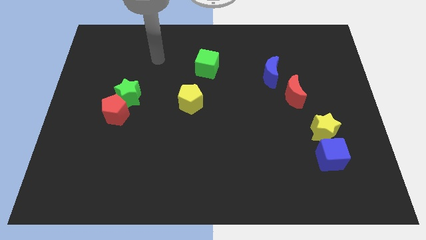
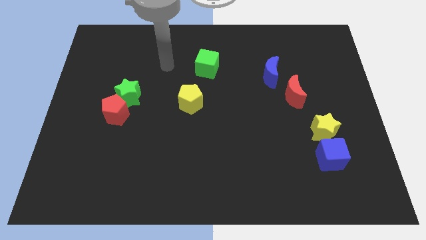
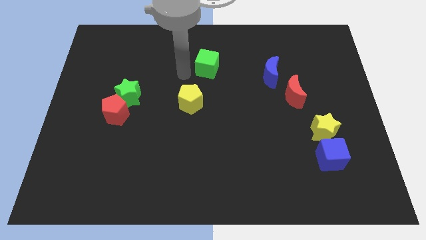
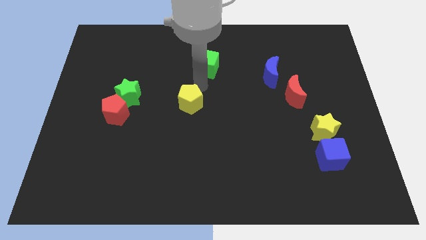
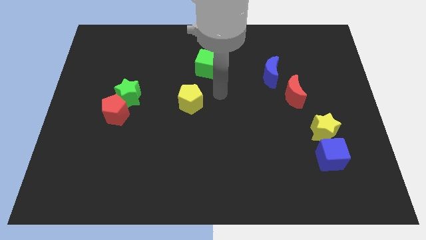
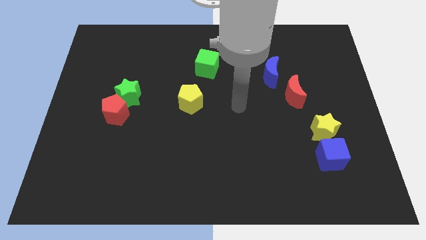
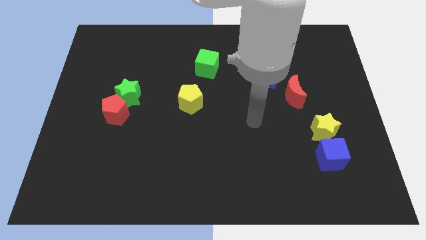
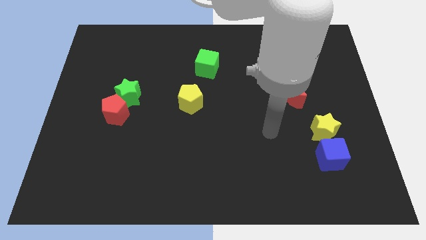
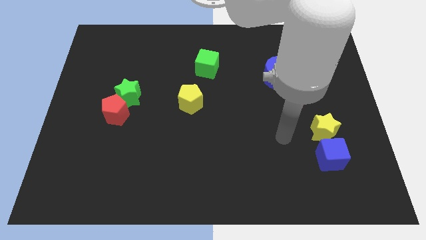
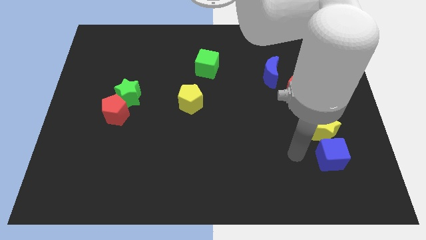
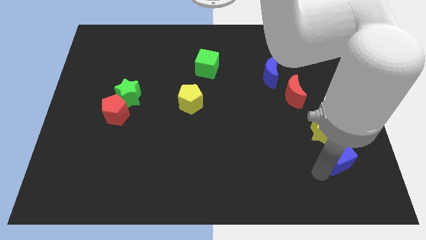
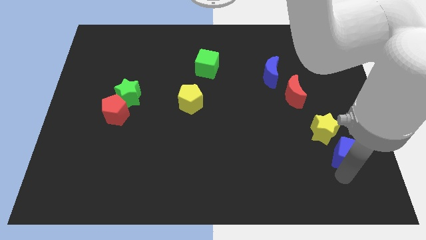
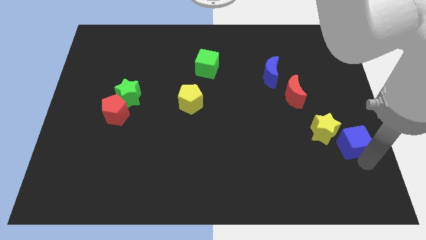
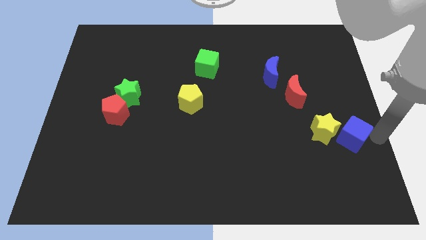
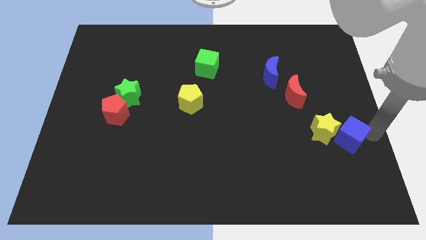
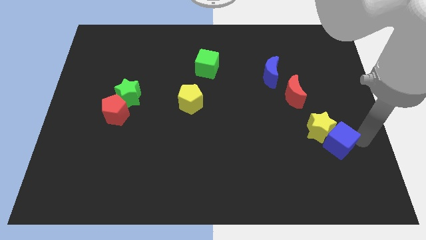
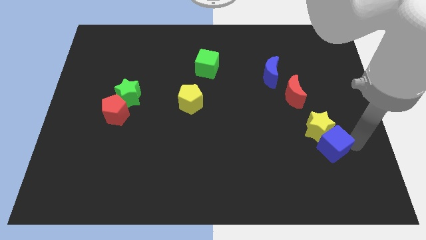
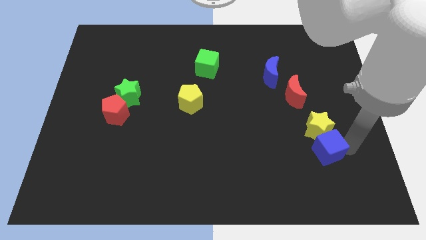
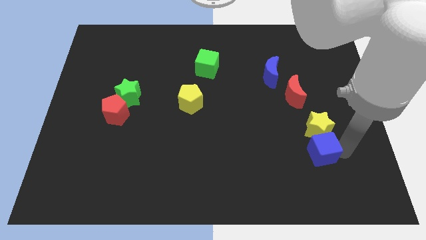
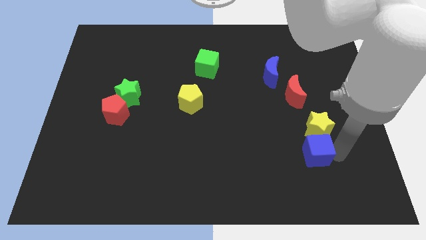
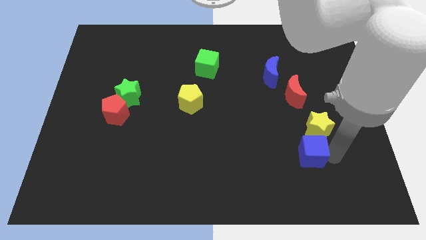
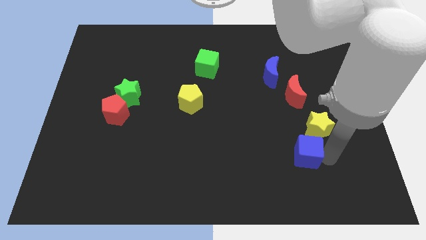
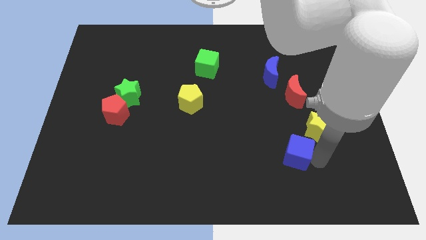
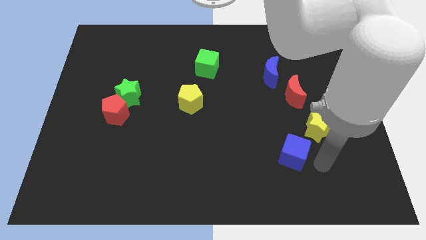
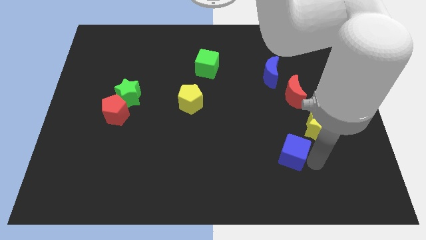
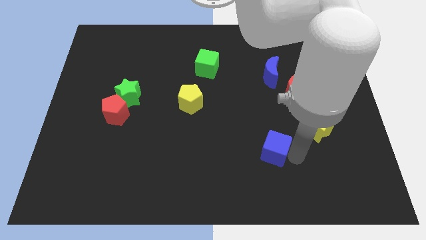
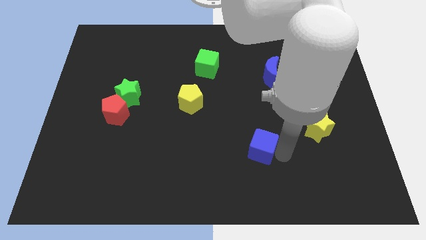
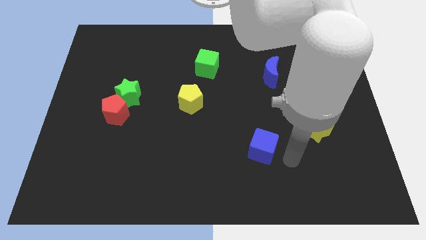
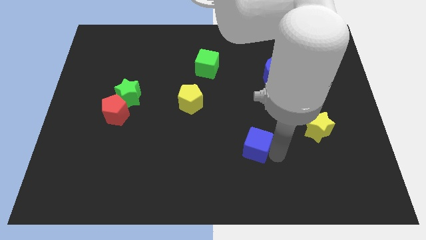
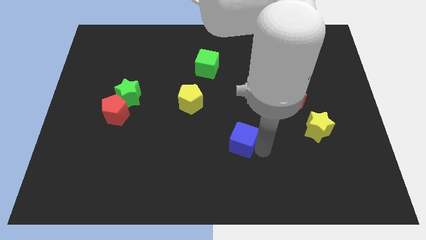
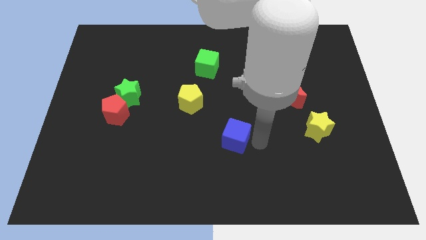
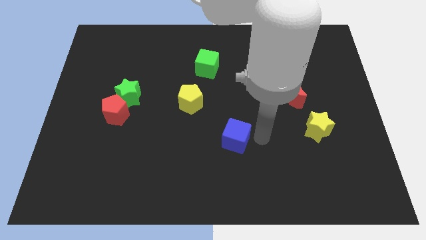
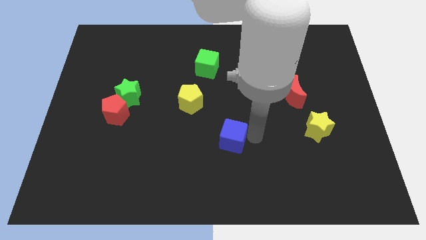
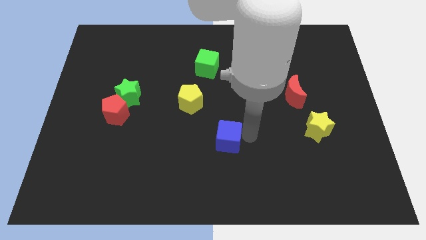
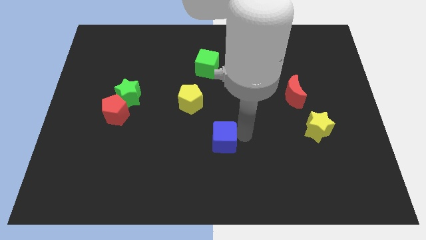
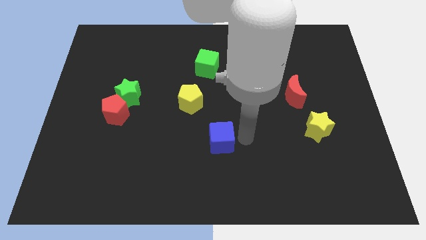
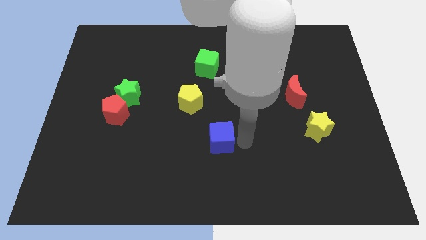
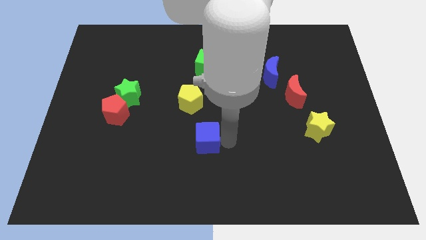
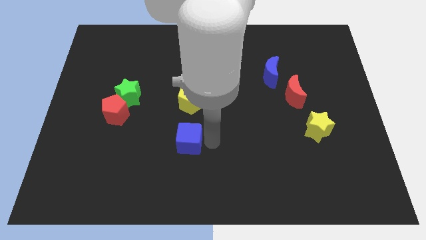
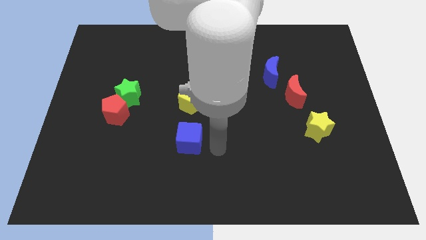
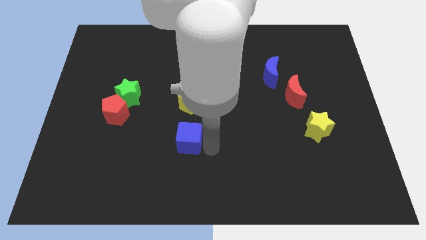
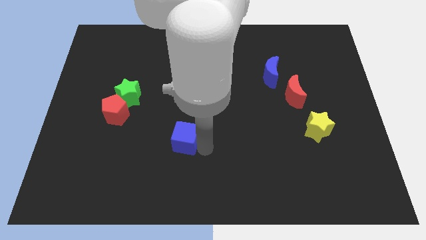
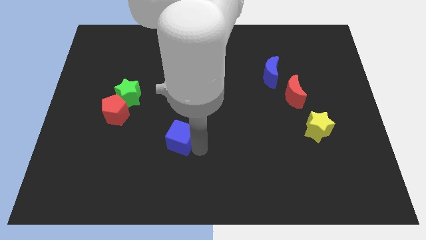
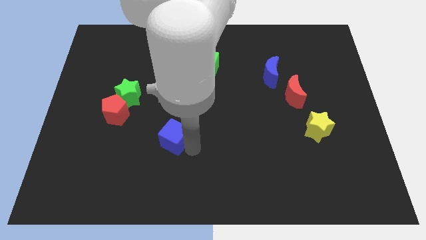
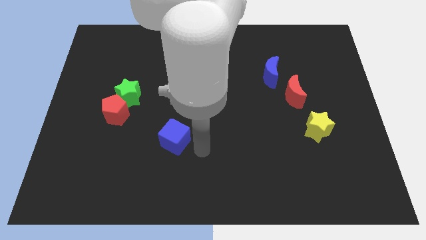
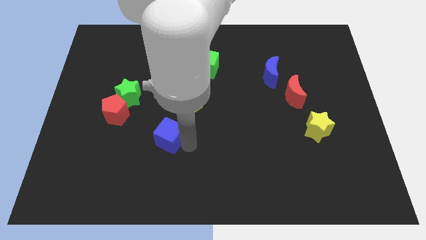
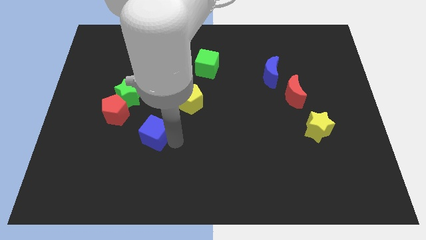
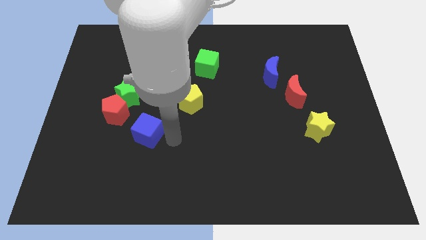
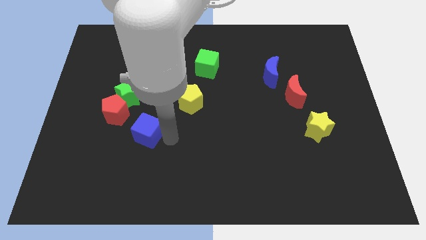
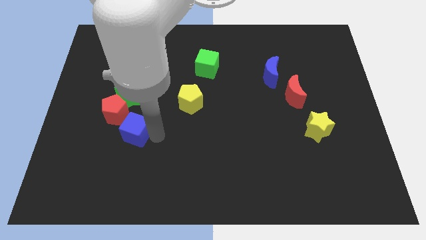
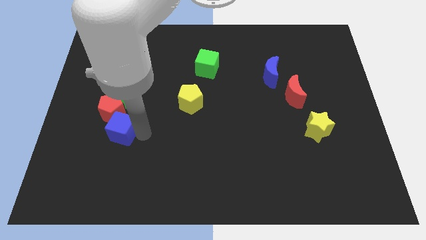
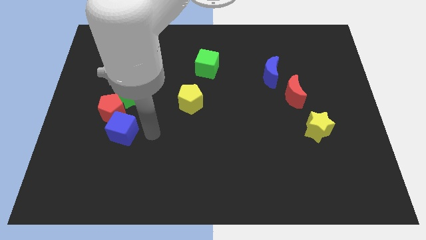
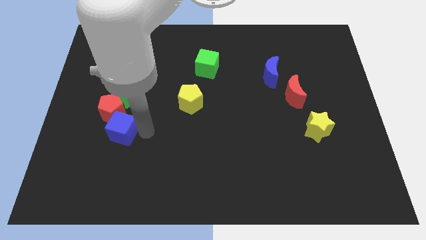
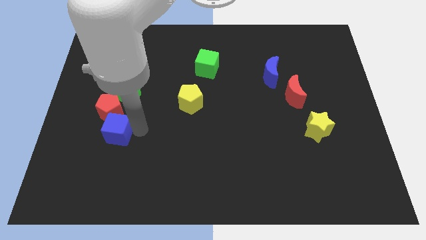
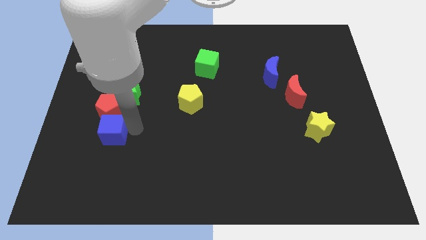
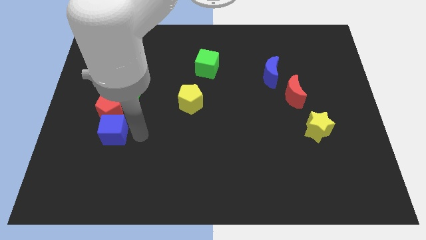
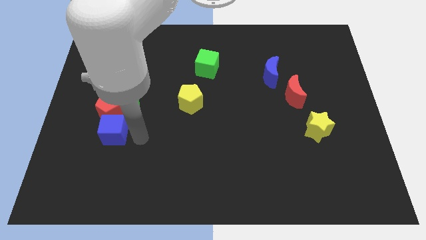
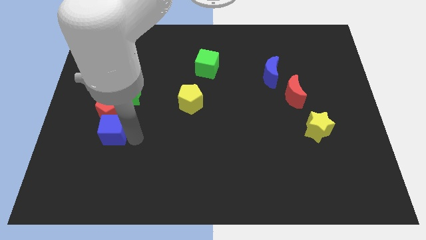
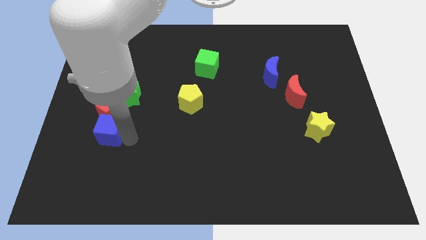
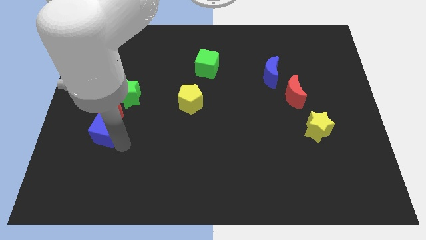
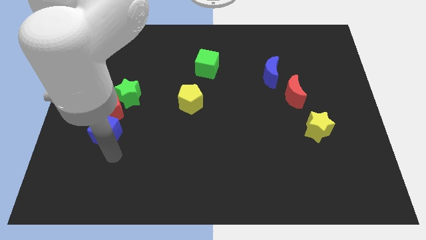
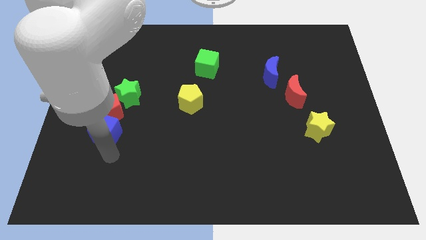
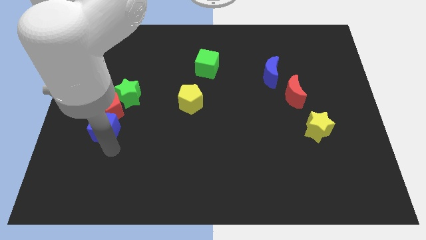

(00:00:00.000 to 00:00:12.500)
push the blue cube to the bottom left side of the green star

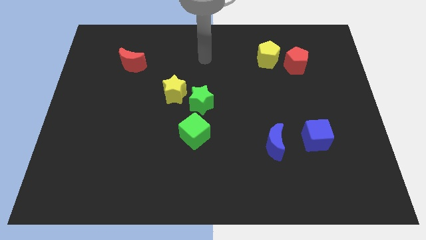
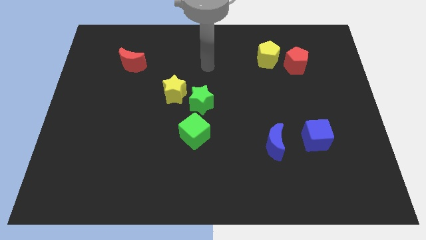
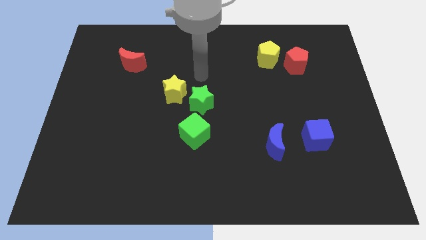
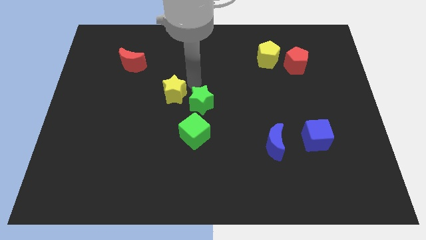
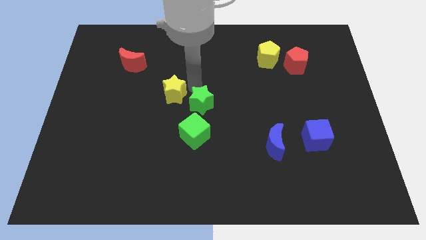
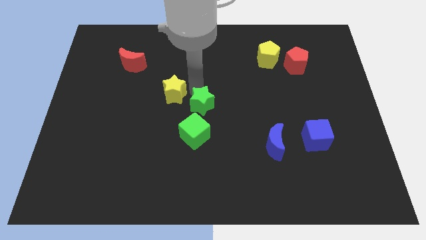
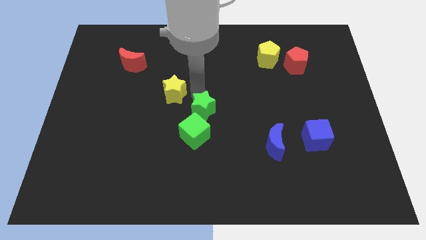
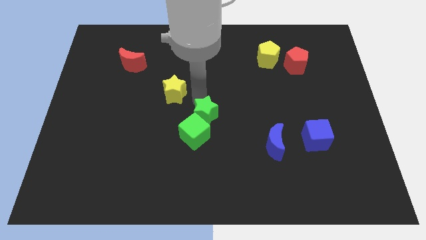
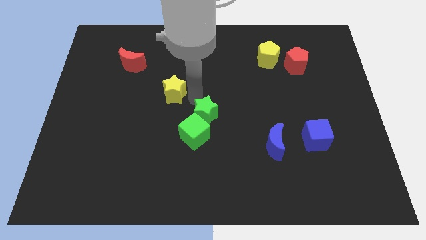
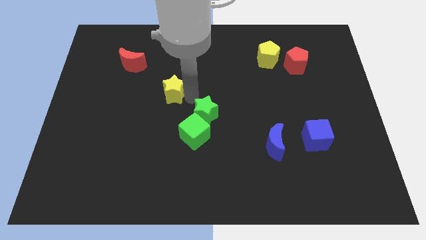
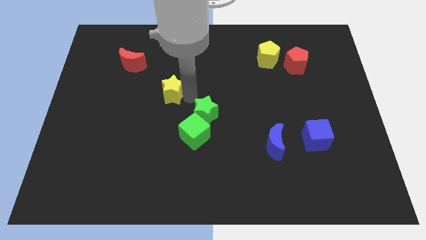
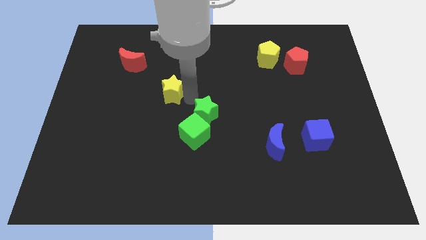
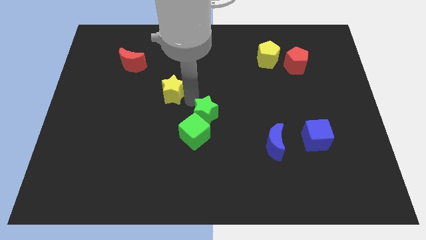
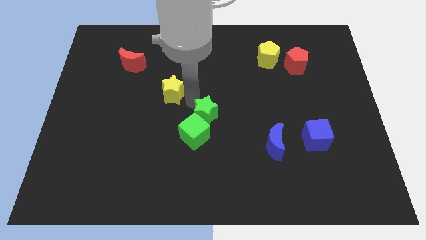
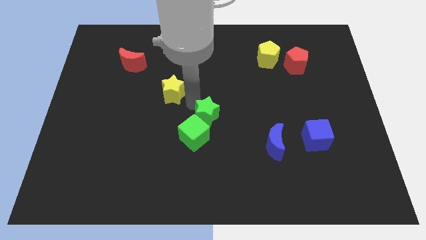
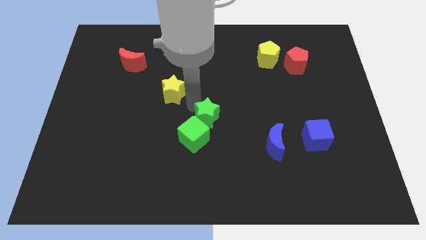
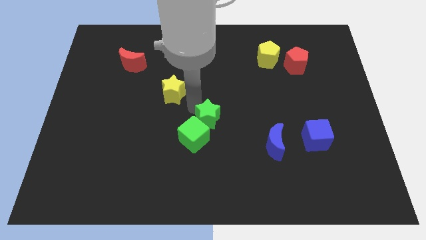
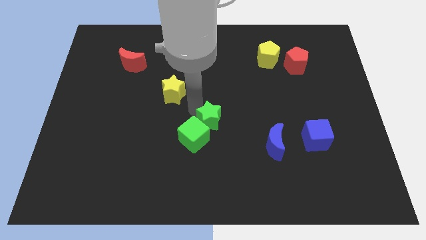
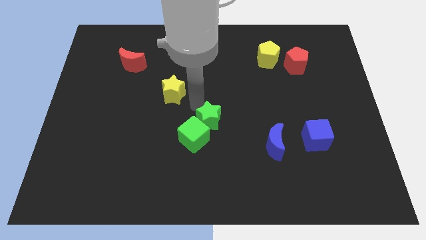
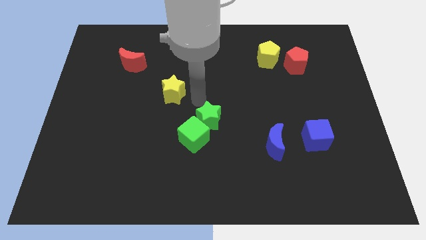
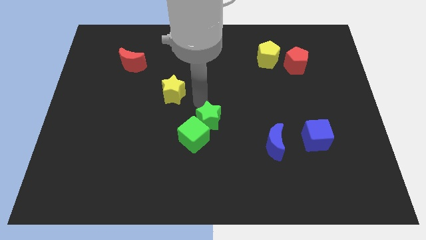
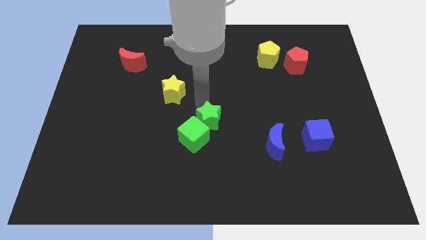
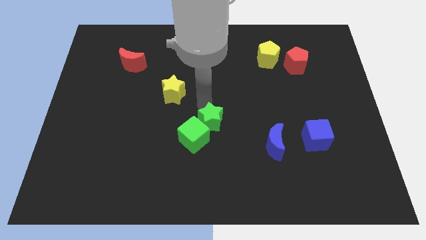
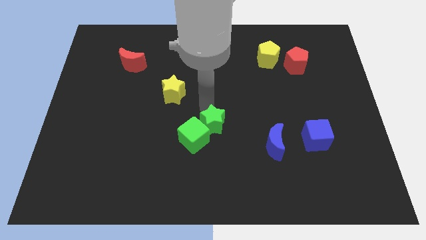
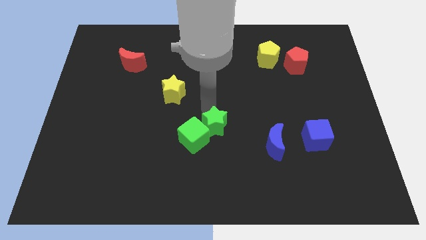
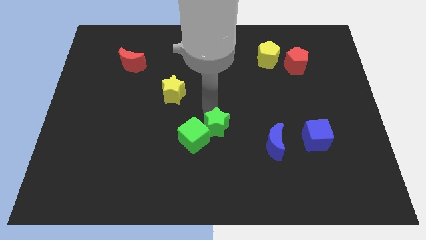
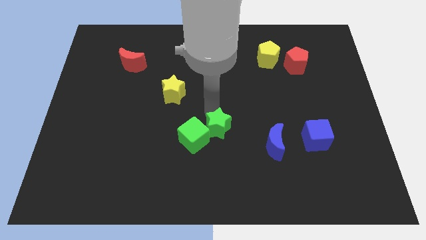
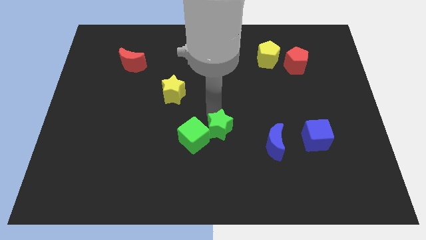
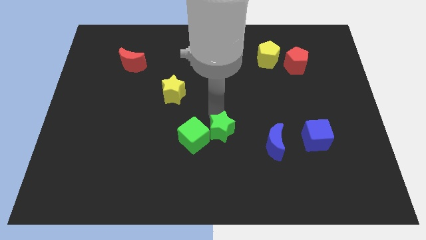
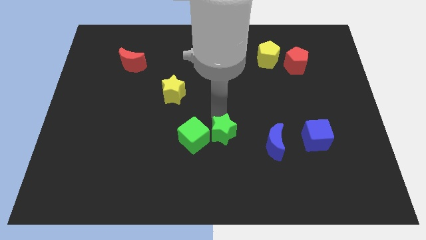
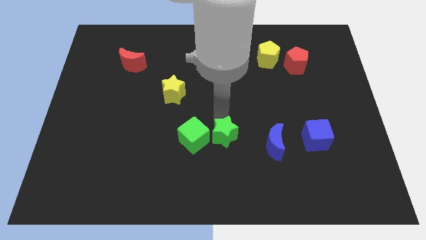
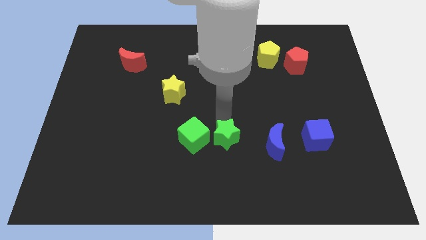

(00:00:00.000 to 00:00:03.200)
move the green star diagonally down and to the right of the green cube
